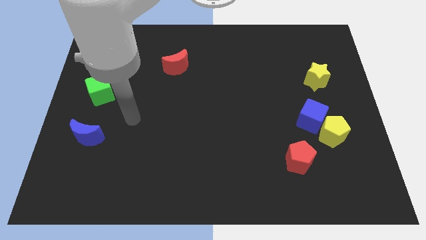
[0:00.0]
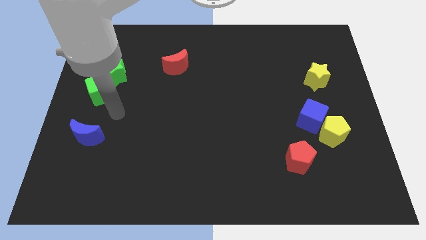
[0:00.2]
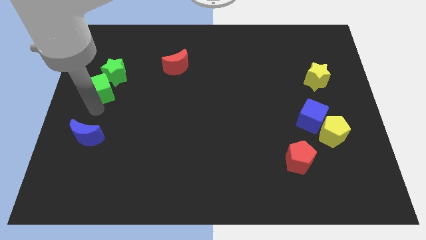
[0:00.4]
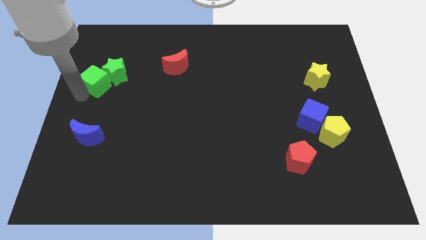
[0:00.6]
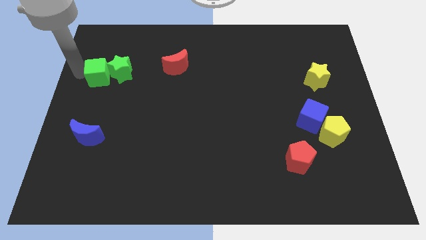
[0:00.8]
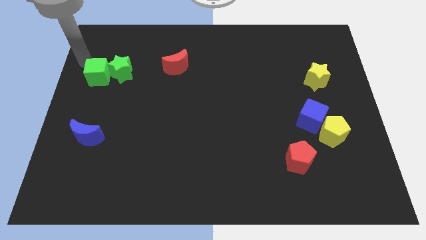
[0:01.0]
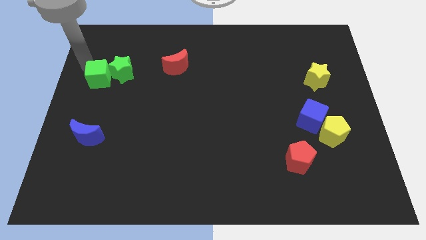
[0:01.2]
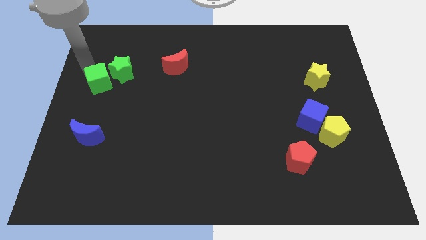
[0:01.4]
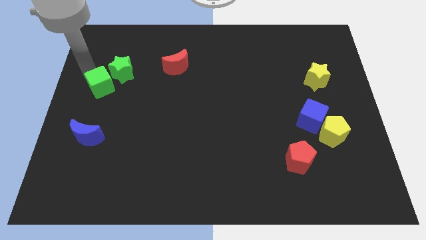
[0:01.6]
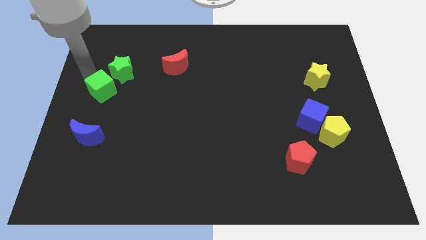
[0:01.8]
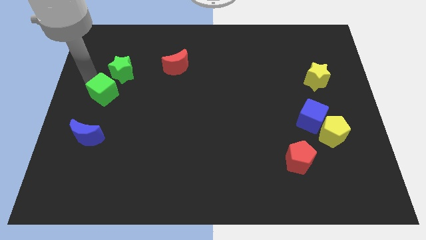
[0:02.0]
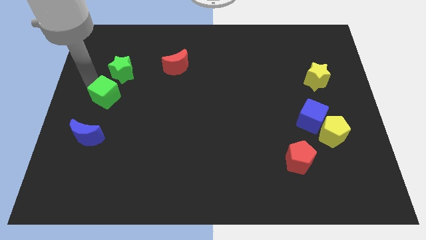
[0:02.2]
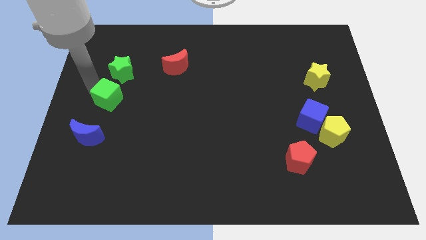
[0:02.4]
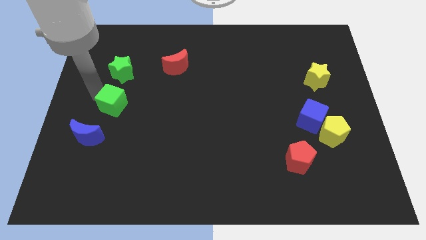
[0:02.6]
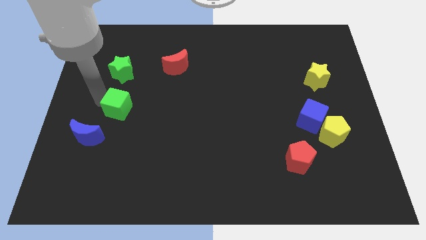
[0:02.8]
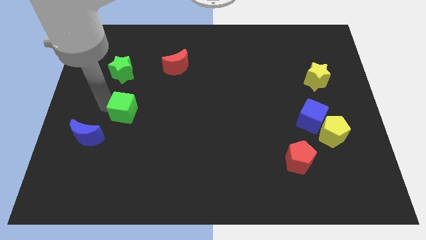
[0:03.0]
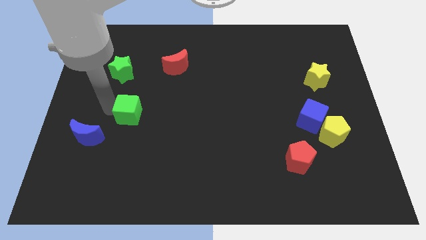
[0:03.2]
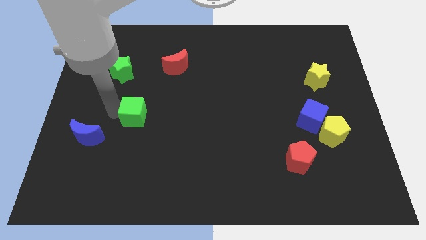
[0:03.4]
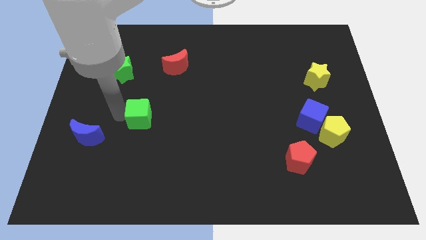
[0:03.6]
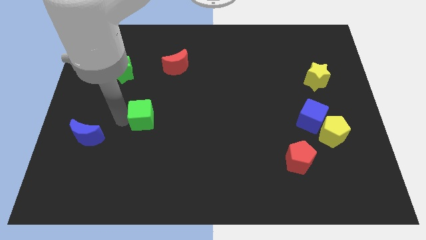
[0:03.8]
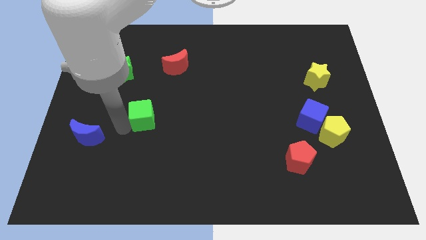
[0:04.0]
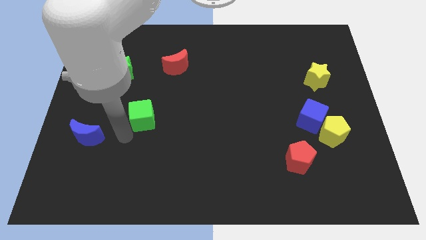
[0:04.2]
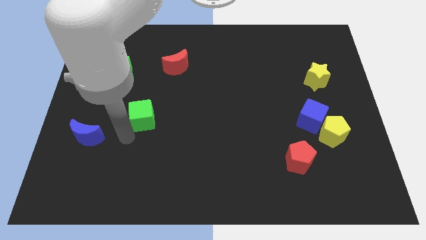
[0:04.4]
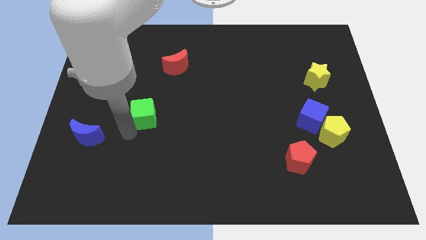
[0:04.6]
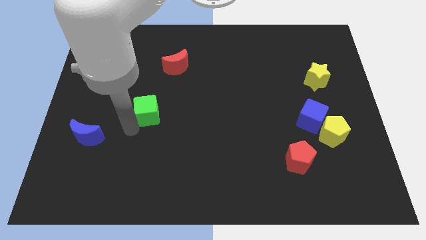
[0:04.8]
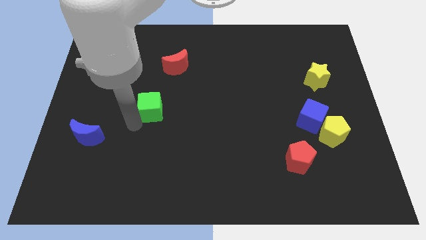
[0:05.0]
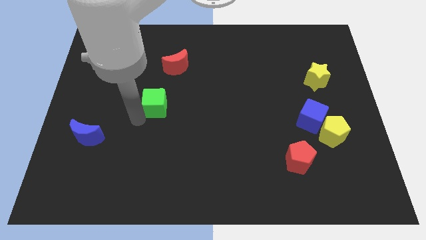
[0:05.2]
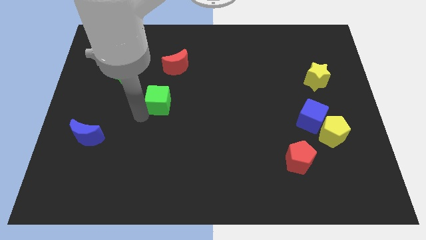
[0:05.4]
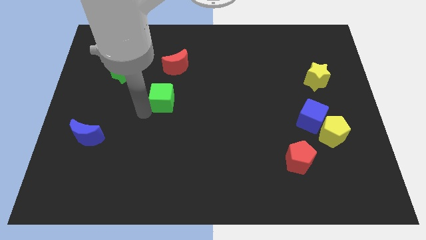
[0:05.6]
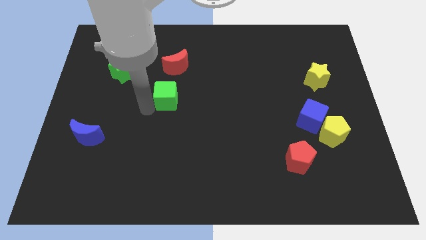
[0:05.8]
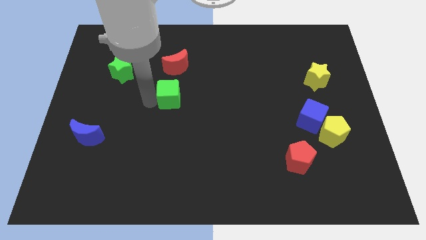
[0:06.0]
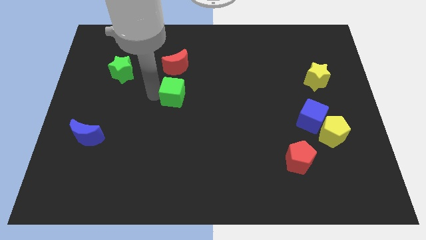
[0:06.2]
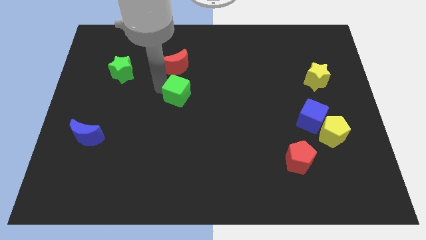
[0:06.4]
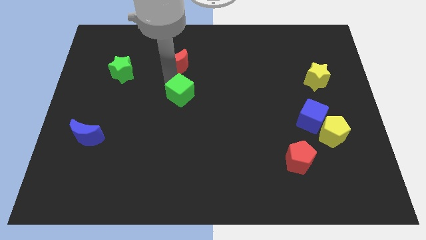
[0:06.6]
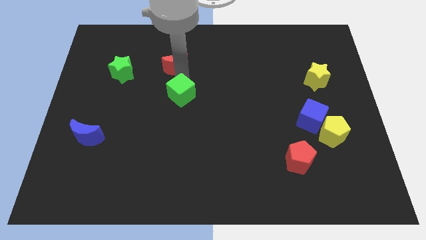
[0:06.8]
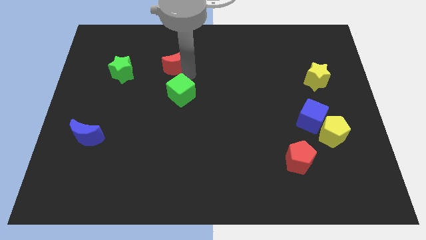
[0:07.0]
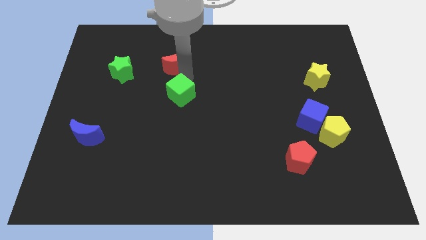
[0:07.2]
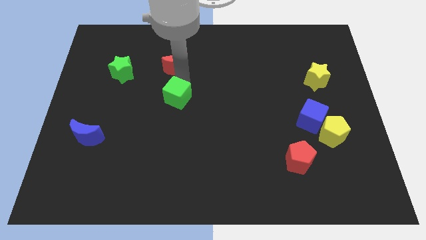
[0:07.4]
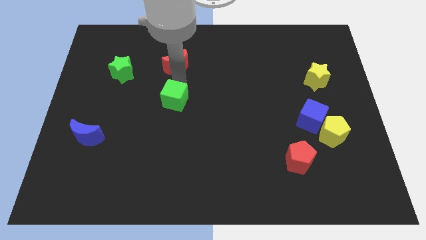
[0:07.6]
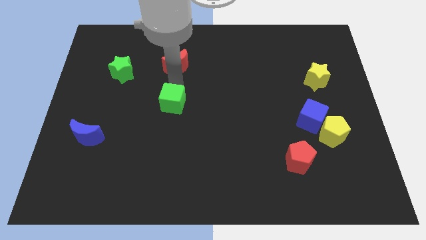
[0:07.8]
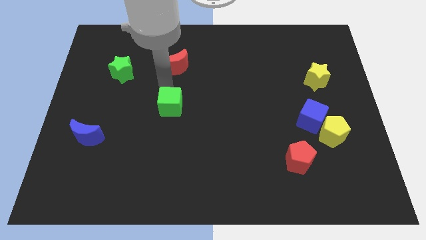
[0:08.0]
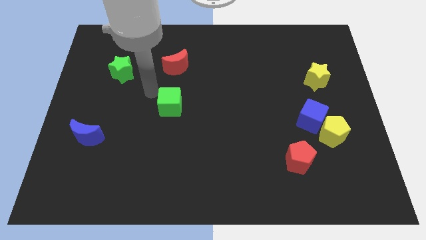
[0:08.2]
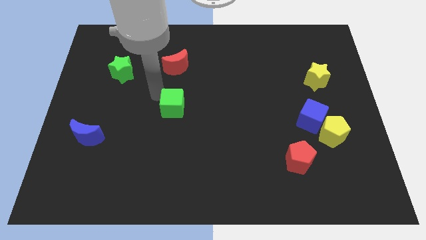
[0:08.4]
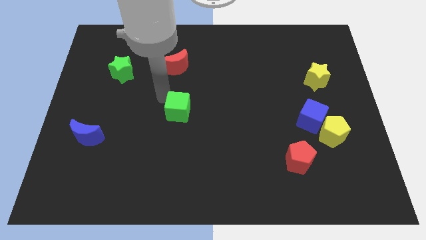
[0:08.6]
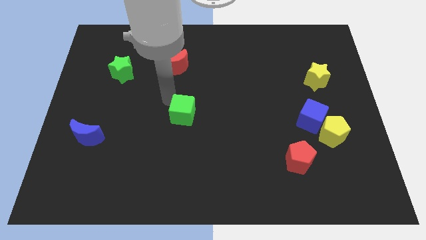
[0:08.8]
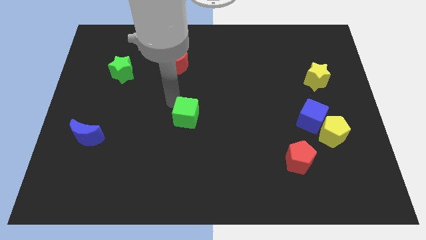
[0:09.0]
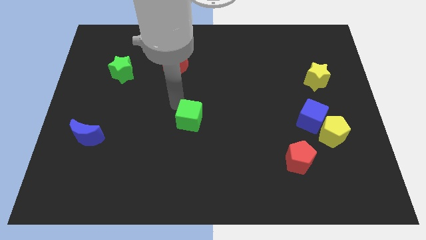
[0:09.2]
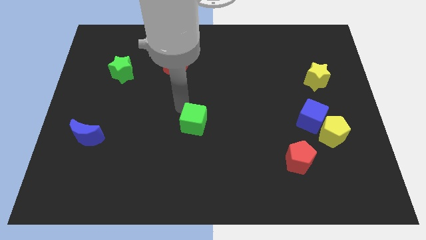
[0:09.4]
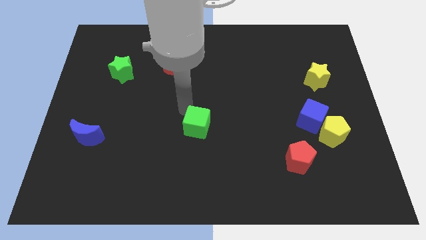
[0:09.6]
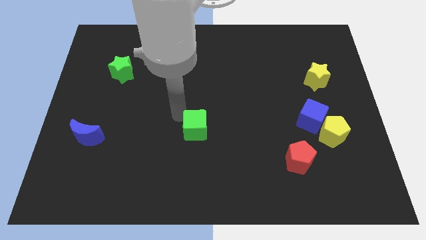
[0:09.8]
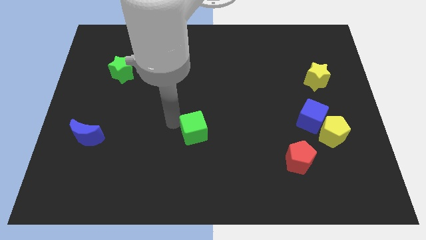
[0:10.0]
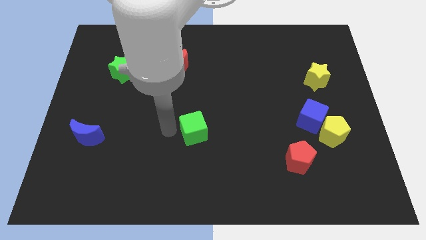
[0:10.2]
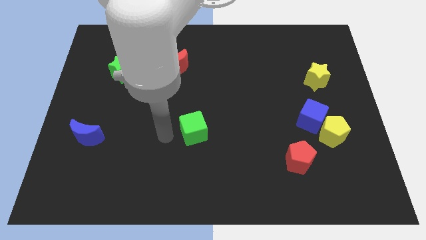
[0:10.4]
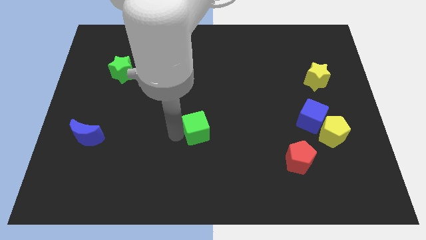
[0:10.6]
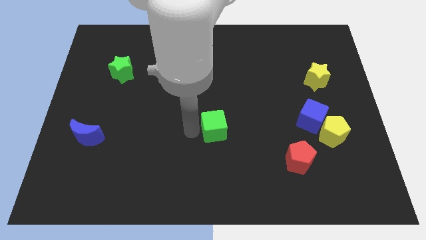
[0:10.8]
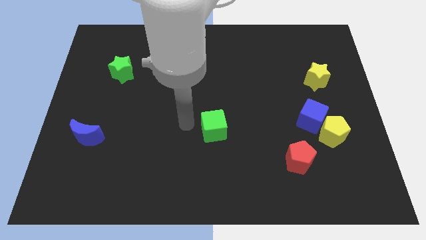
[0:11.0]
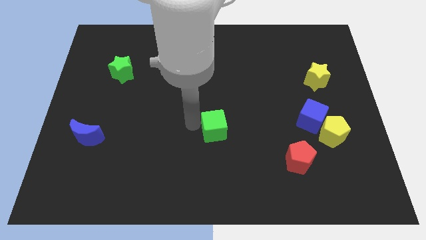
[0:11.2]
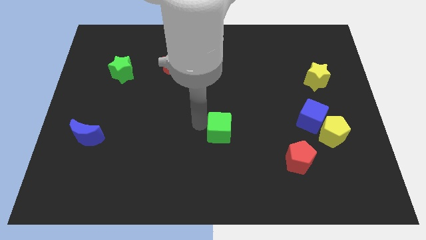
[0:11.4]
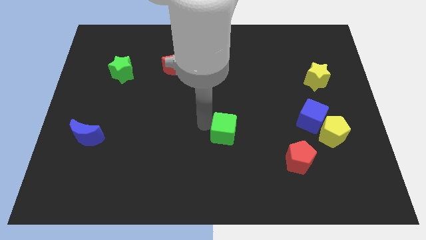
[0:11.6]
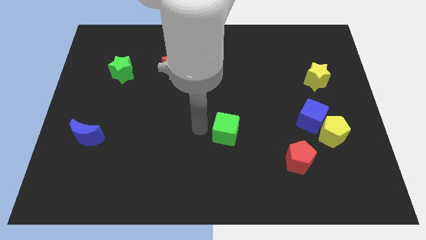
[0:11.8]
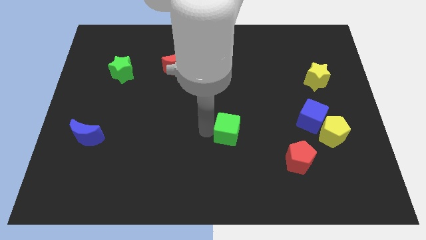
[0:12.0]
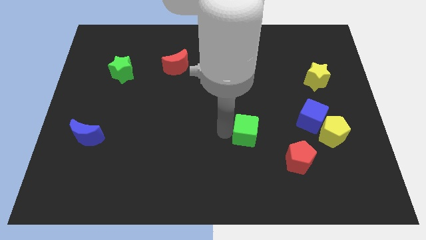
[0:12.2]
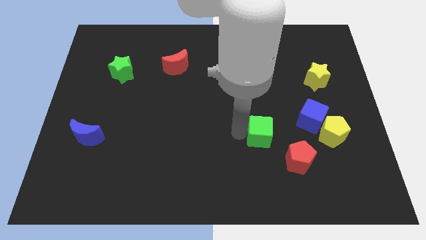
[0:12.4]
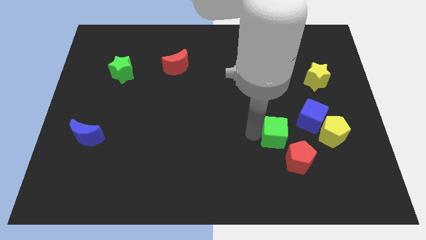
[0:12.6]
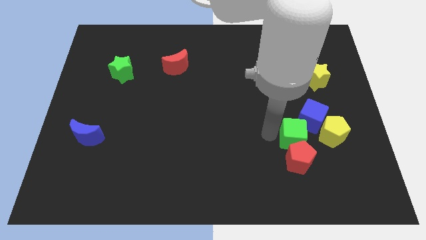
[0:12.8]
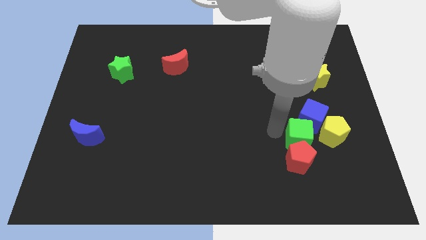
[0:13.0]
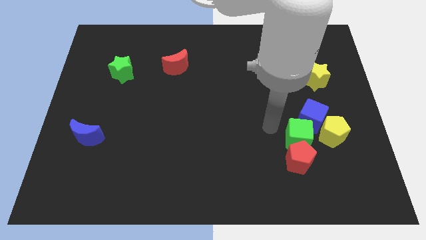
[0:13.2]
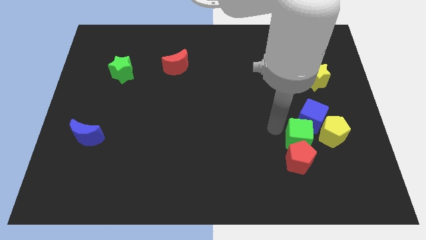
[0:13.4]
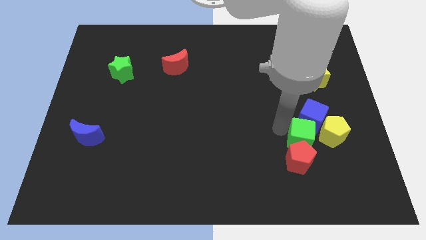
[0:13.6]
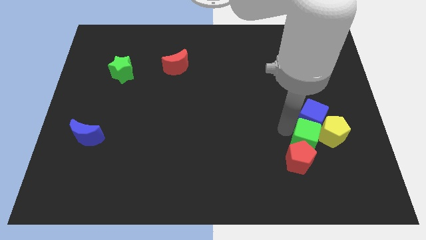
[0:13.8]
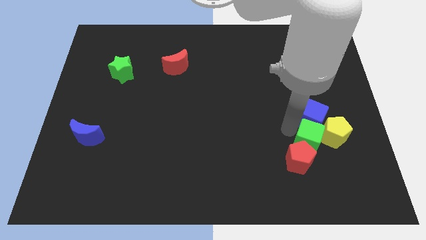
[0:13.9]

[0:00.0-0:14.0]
slide the green cube close to the yellow pentagon

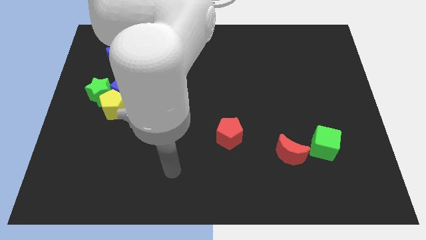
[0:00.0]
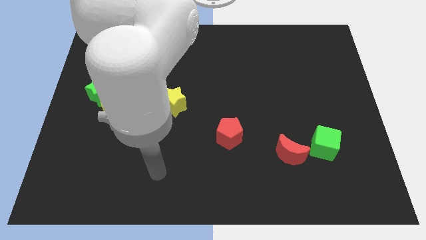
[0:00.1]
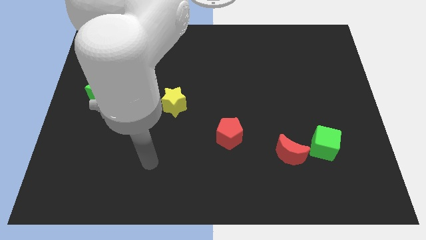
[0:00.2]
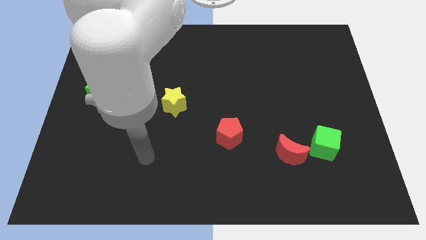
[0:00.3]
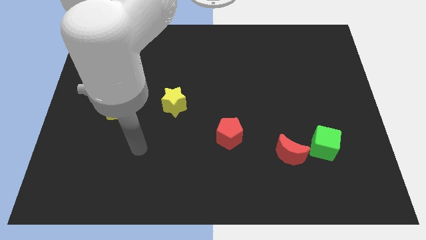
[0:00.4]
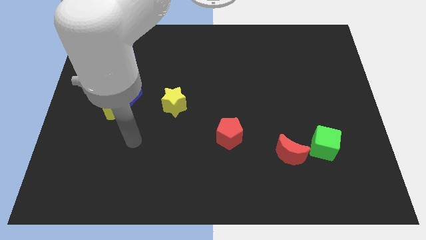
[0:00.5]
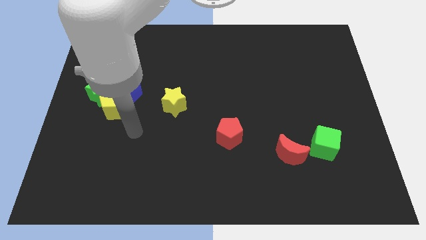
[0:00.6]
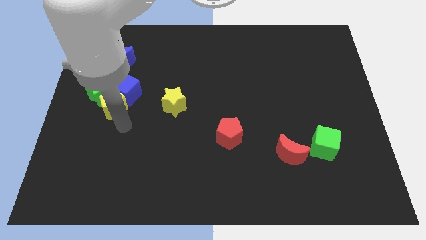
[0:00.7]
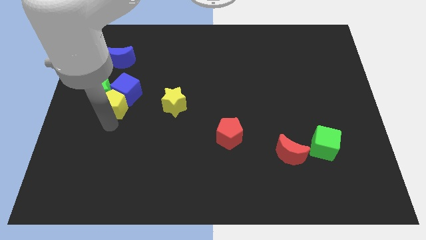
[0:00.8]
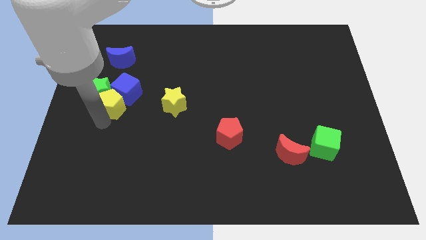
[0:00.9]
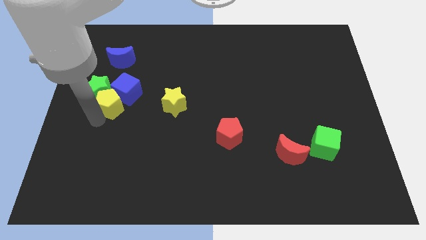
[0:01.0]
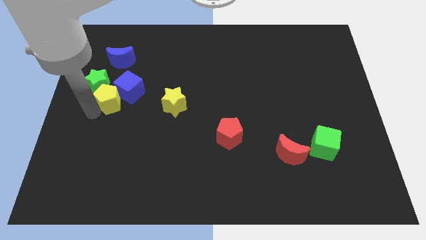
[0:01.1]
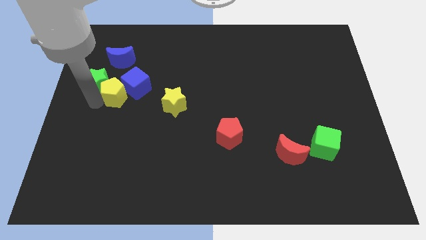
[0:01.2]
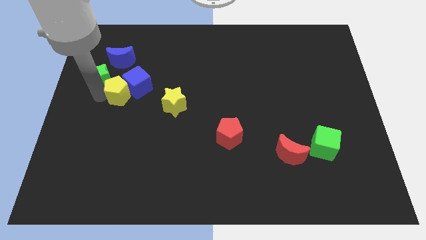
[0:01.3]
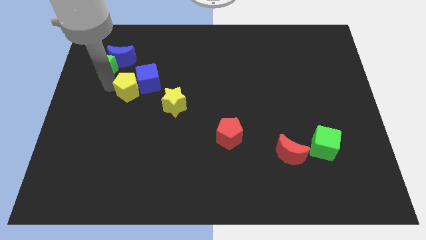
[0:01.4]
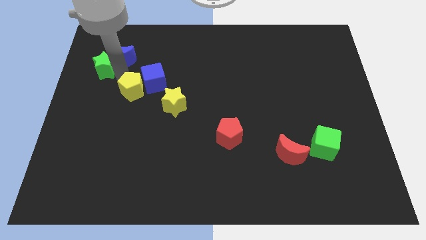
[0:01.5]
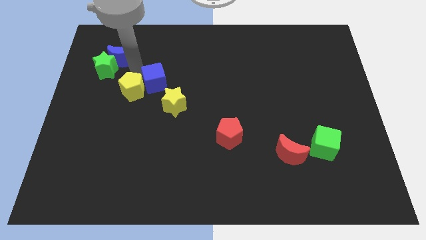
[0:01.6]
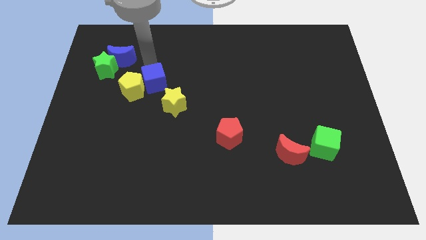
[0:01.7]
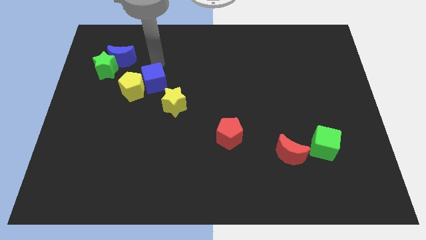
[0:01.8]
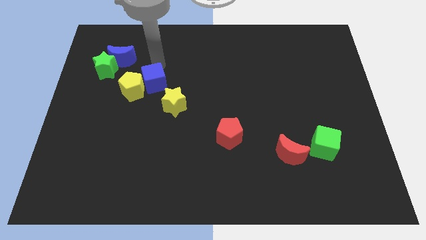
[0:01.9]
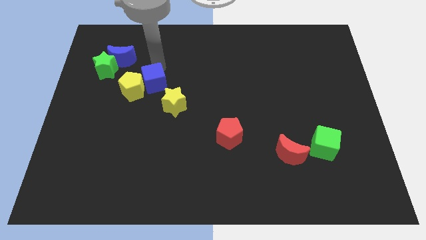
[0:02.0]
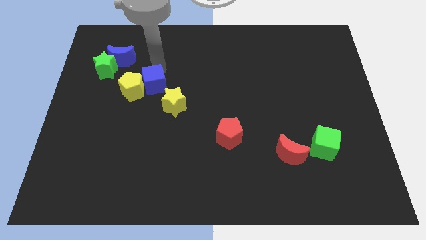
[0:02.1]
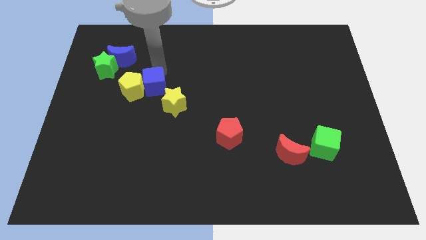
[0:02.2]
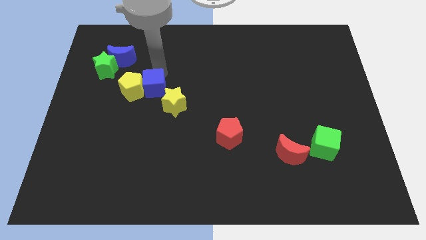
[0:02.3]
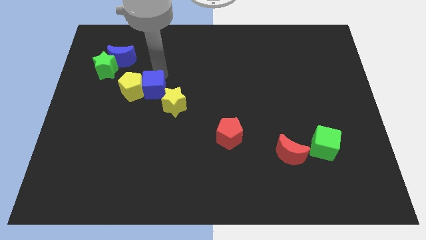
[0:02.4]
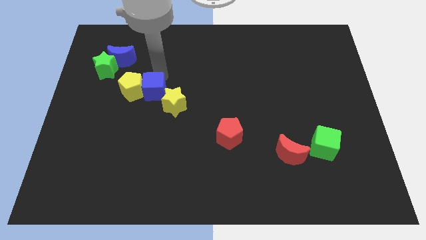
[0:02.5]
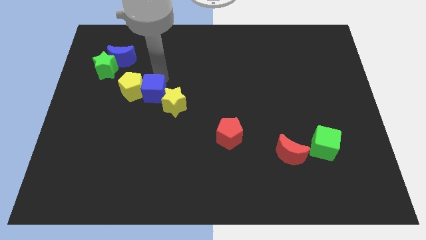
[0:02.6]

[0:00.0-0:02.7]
move the blue cube to the yellow star
